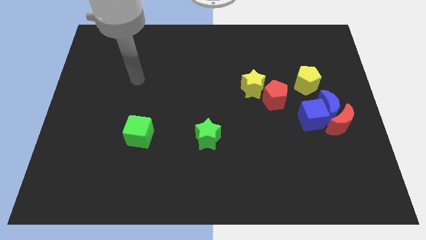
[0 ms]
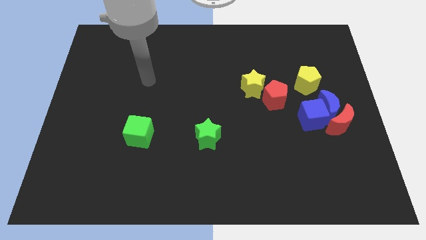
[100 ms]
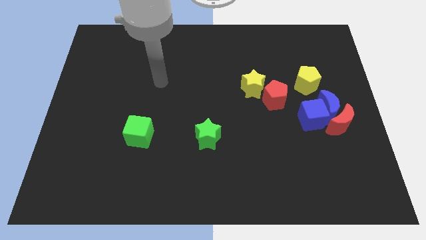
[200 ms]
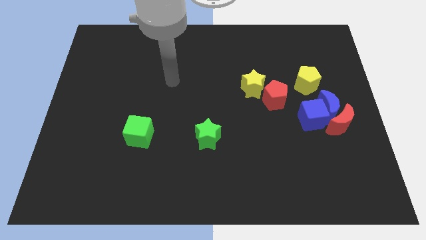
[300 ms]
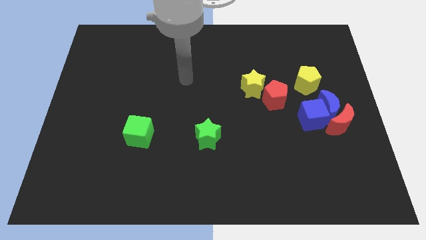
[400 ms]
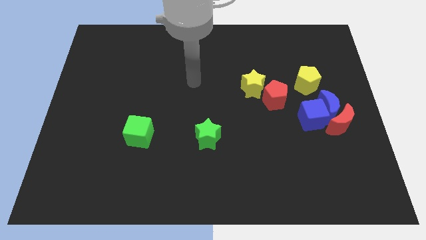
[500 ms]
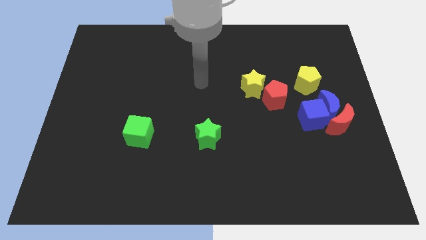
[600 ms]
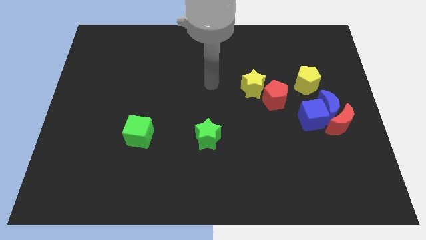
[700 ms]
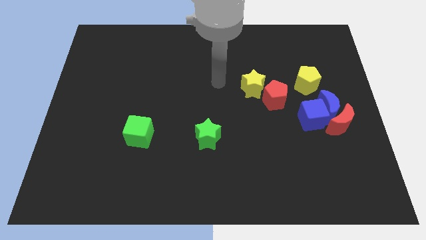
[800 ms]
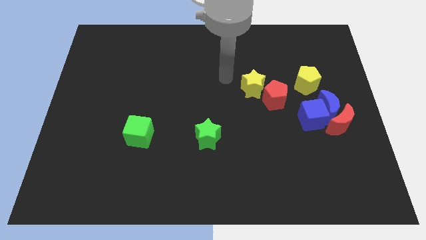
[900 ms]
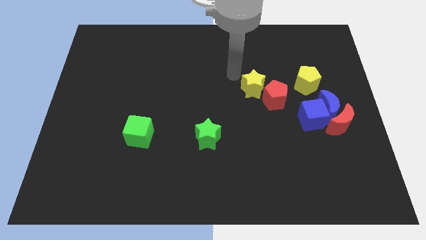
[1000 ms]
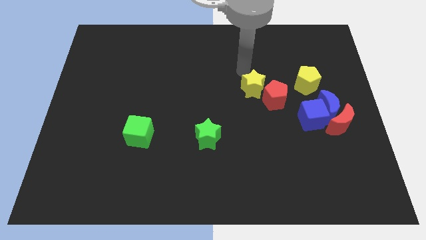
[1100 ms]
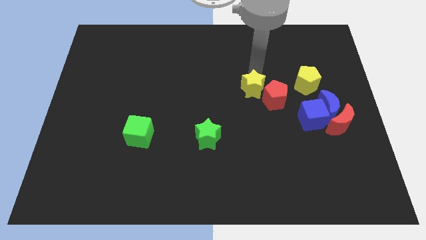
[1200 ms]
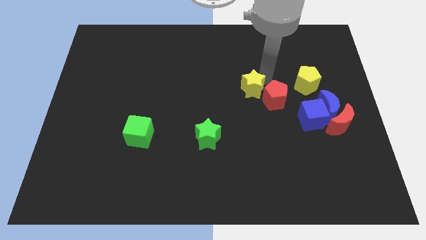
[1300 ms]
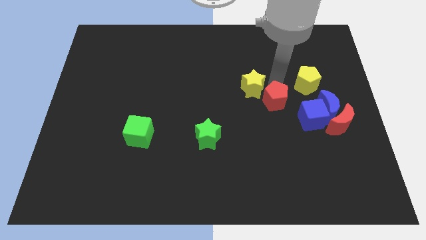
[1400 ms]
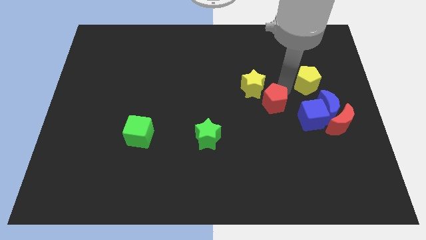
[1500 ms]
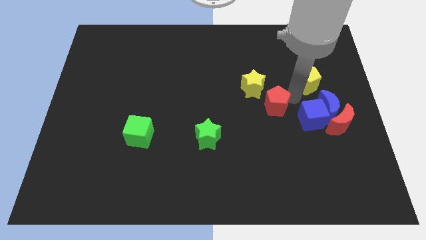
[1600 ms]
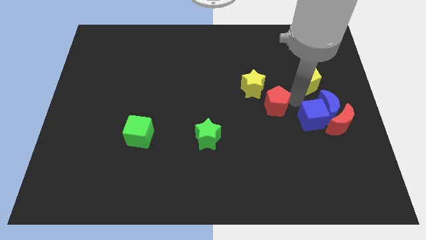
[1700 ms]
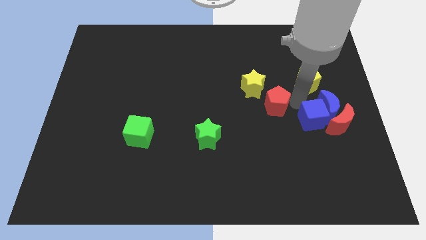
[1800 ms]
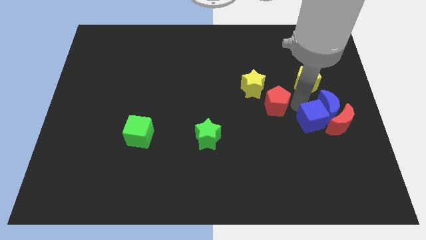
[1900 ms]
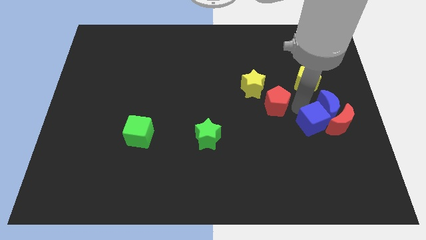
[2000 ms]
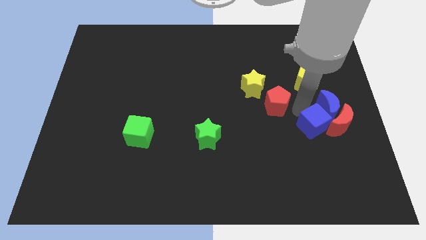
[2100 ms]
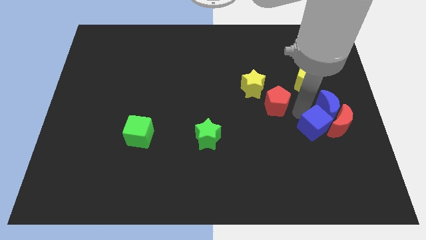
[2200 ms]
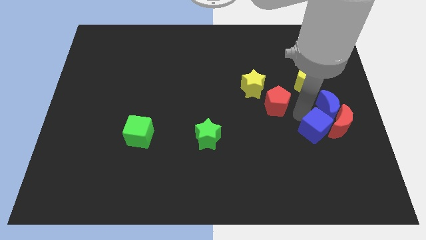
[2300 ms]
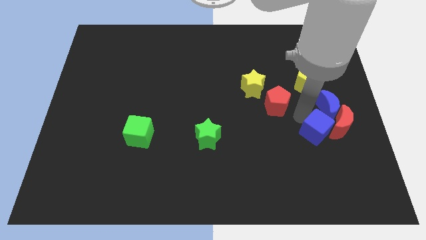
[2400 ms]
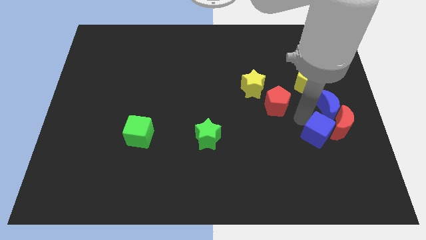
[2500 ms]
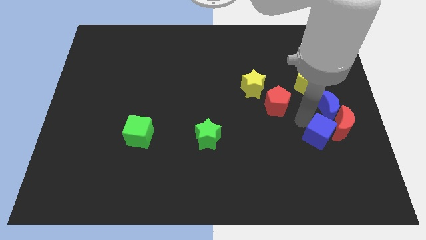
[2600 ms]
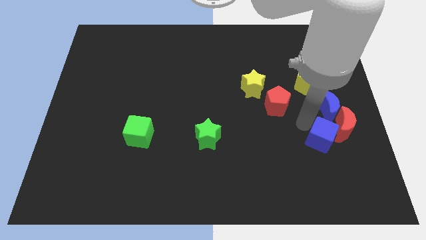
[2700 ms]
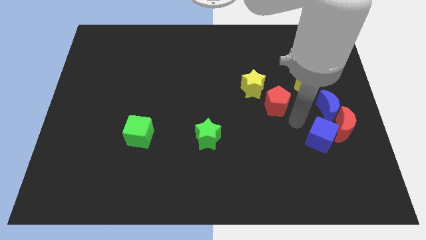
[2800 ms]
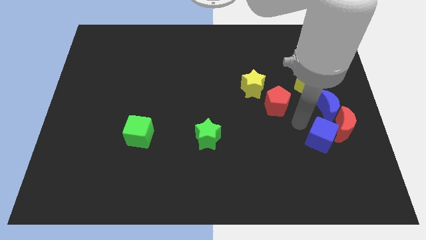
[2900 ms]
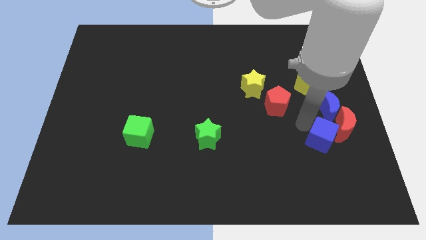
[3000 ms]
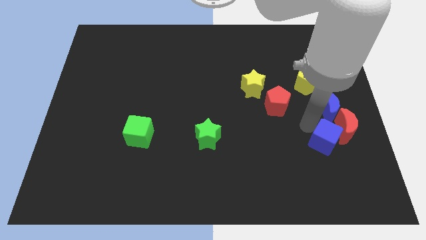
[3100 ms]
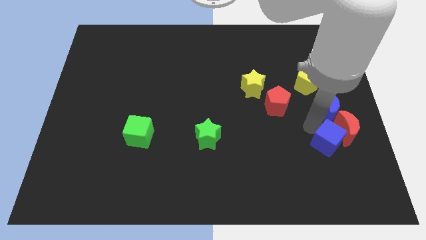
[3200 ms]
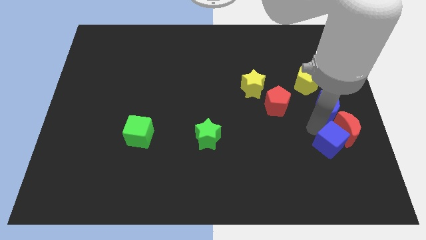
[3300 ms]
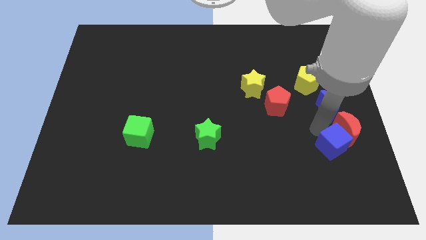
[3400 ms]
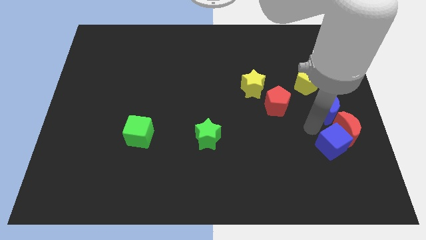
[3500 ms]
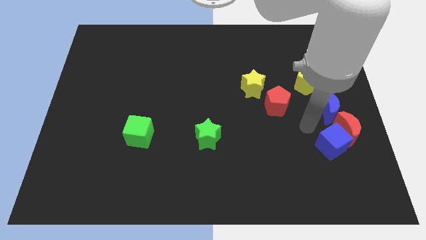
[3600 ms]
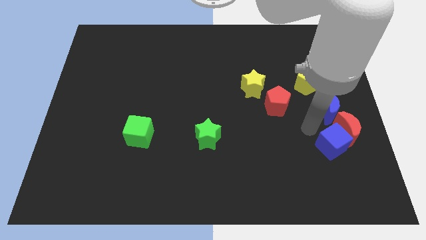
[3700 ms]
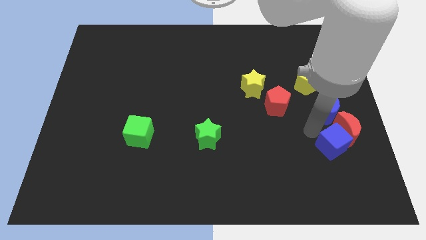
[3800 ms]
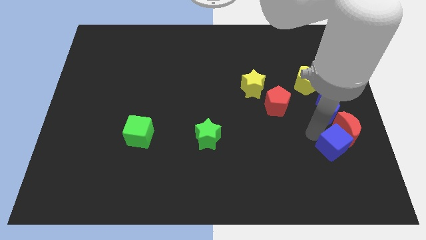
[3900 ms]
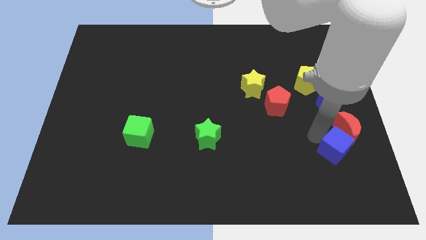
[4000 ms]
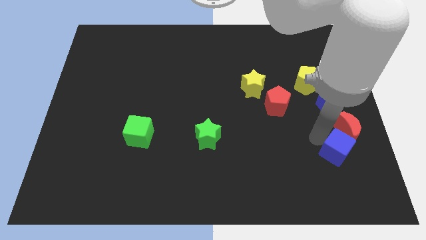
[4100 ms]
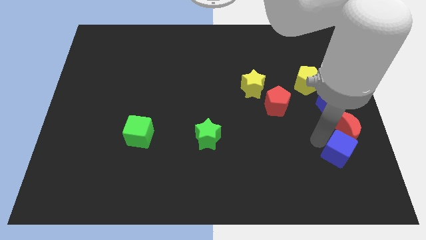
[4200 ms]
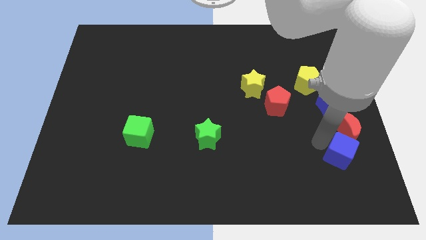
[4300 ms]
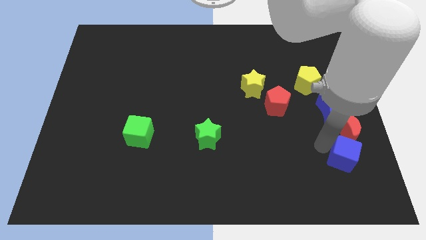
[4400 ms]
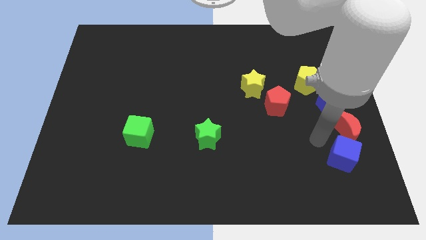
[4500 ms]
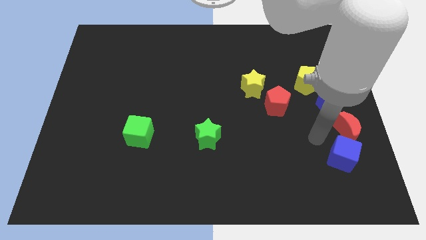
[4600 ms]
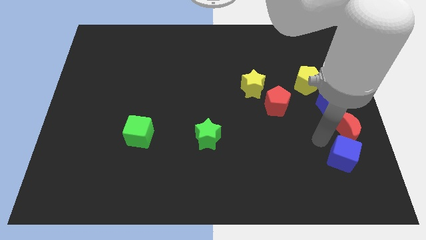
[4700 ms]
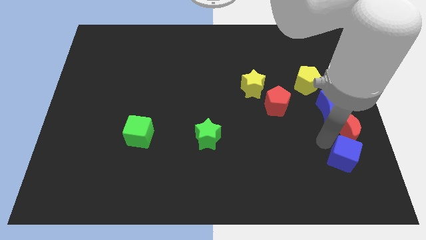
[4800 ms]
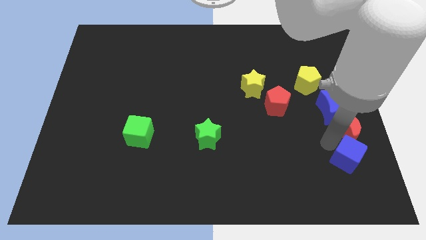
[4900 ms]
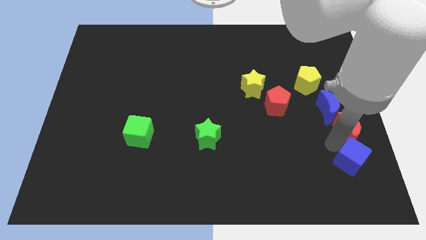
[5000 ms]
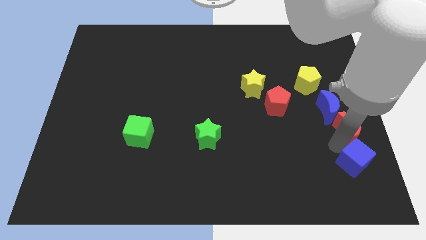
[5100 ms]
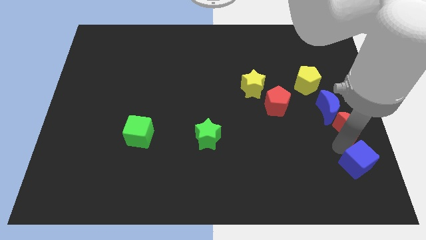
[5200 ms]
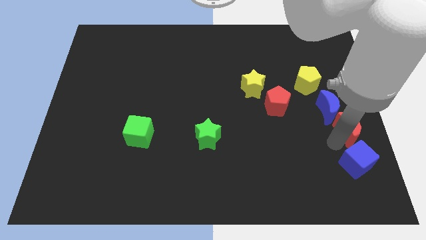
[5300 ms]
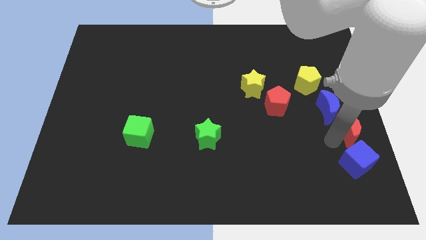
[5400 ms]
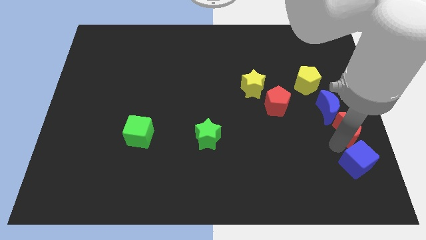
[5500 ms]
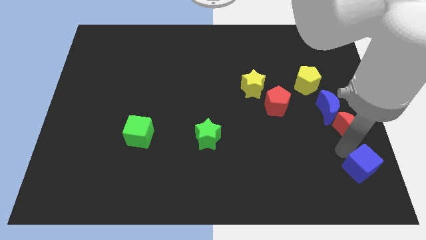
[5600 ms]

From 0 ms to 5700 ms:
slide the blue cube to the bottom right of the board
